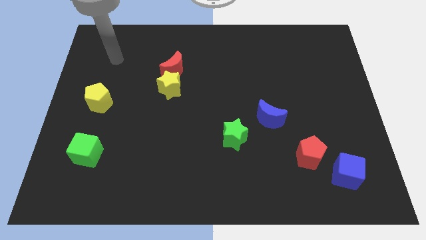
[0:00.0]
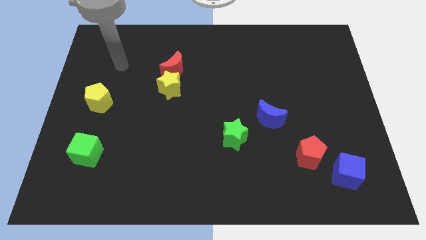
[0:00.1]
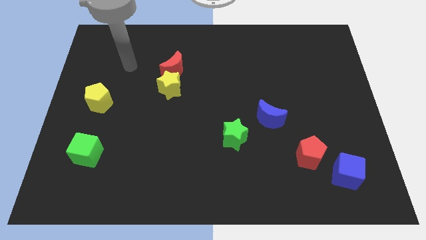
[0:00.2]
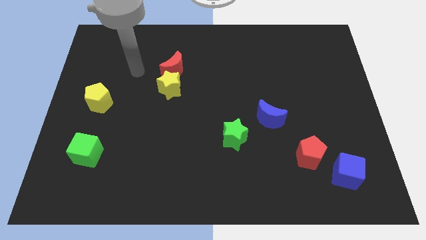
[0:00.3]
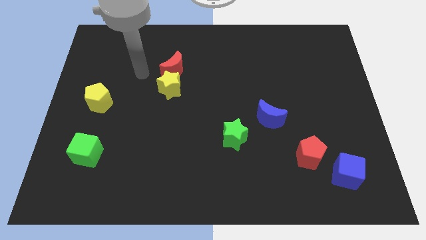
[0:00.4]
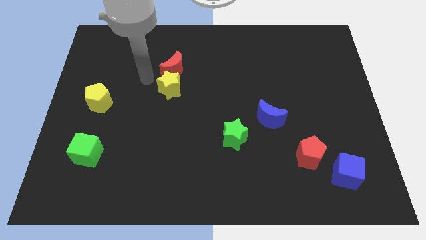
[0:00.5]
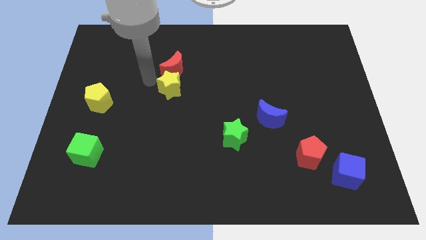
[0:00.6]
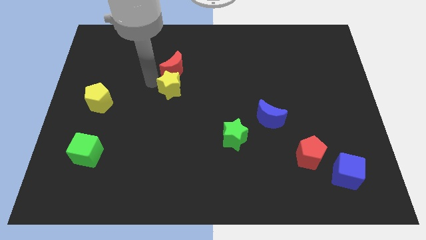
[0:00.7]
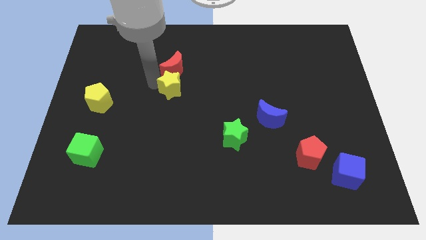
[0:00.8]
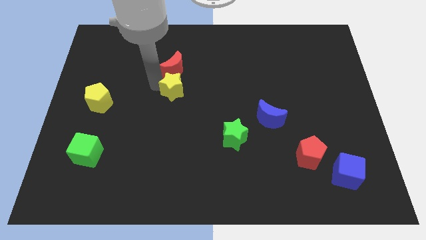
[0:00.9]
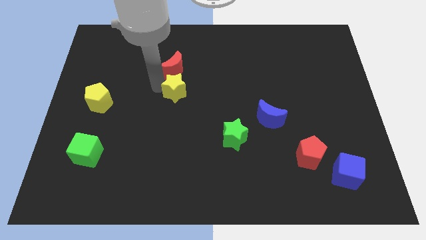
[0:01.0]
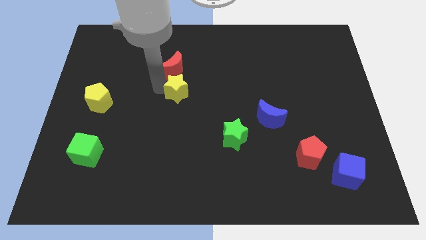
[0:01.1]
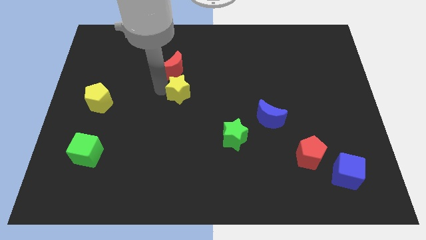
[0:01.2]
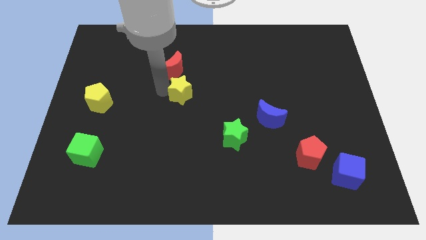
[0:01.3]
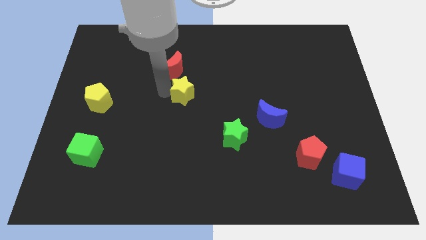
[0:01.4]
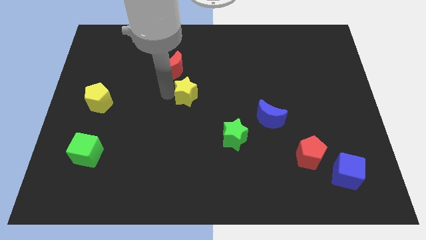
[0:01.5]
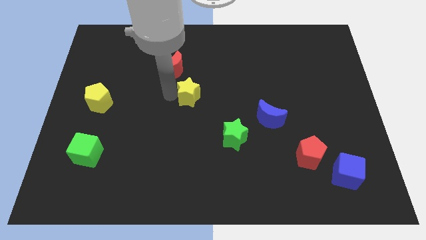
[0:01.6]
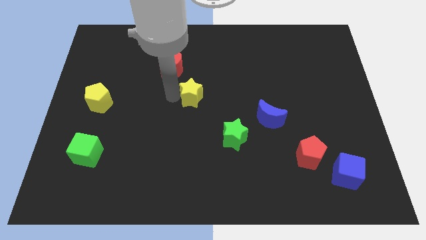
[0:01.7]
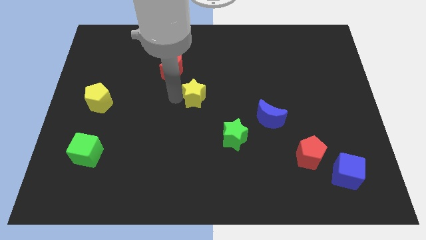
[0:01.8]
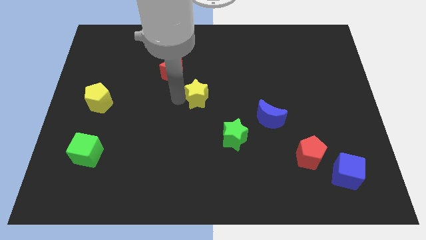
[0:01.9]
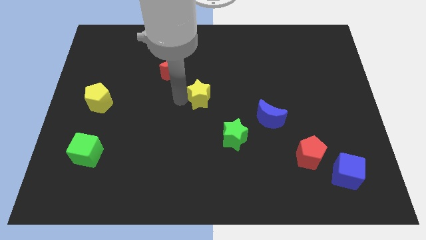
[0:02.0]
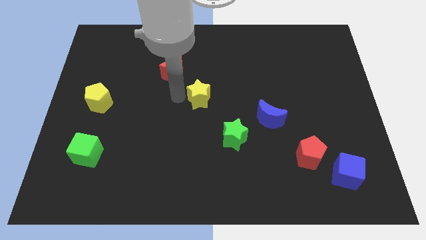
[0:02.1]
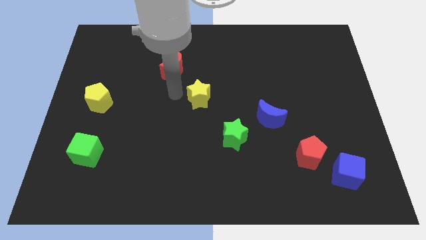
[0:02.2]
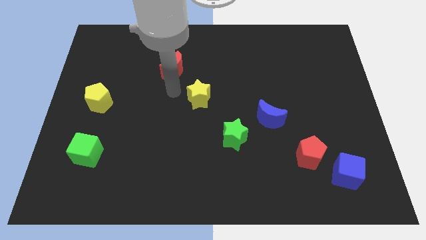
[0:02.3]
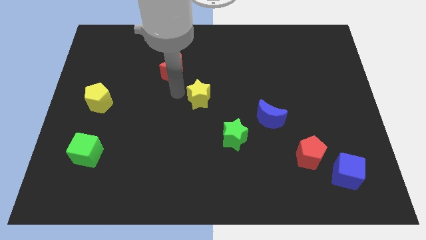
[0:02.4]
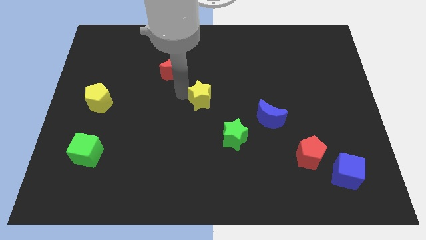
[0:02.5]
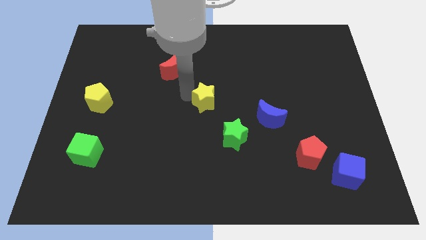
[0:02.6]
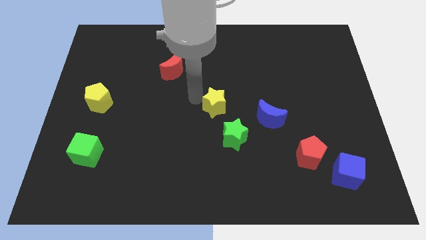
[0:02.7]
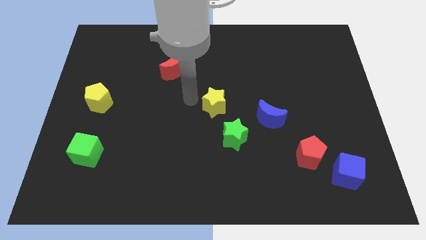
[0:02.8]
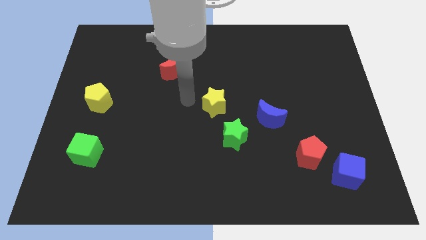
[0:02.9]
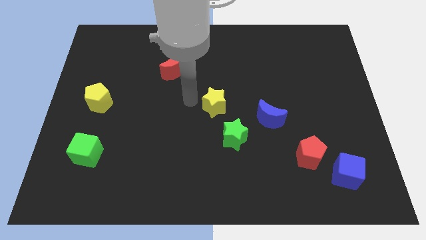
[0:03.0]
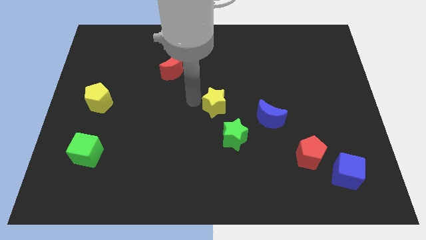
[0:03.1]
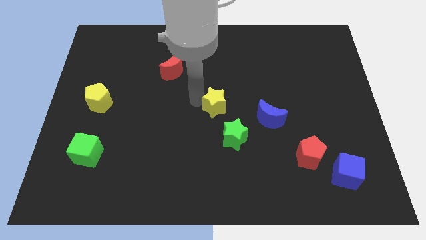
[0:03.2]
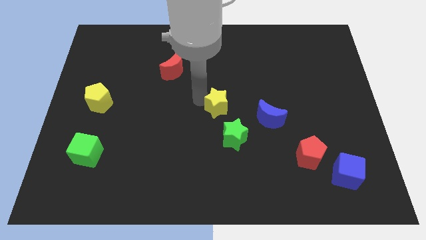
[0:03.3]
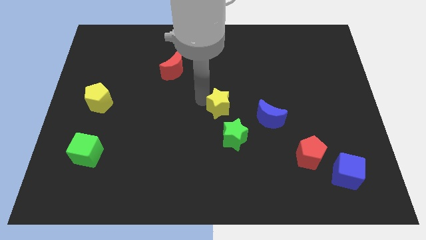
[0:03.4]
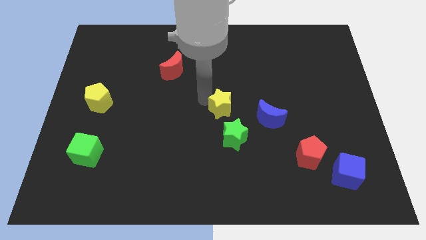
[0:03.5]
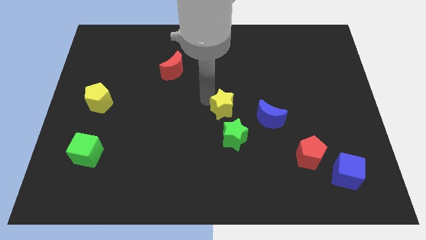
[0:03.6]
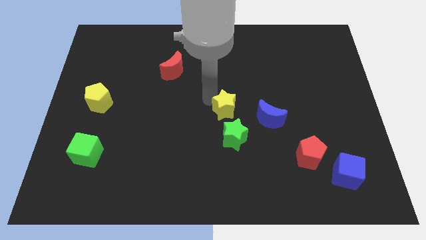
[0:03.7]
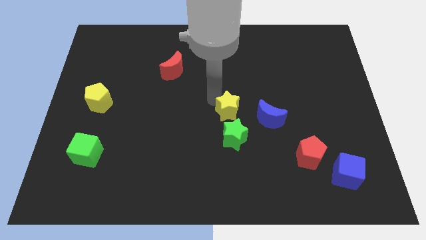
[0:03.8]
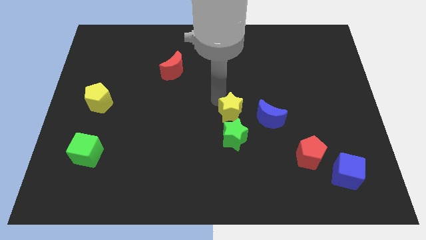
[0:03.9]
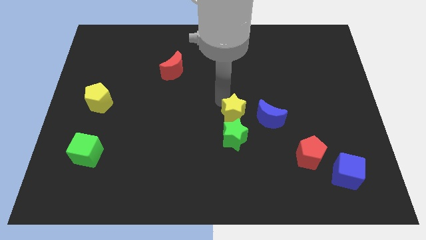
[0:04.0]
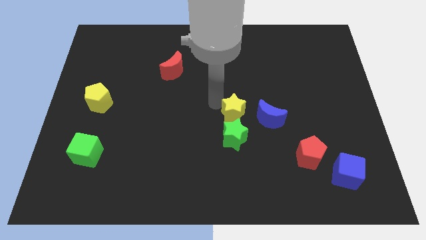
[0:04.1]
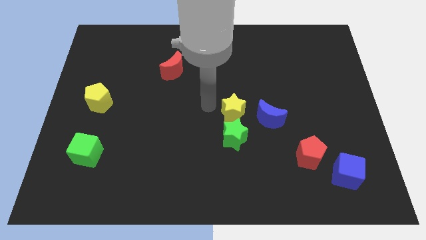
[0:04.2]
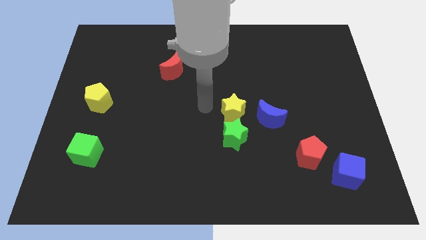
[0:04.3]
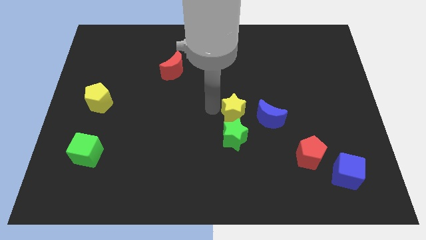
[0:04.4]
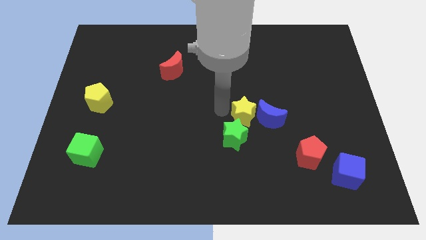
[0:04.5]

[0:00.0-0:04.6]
push the yellow star close to the blue moon

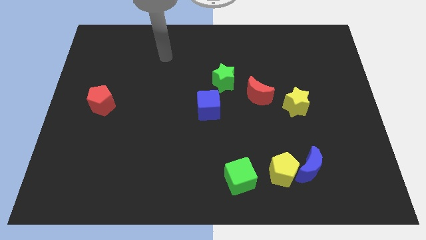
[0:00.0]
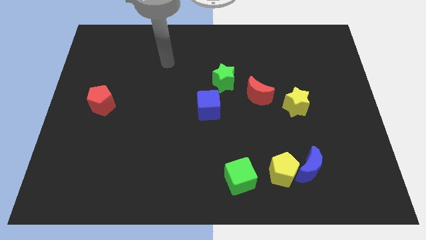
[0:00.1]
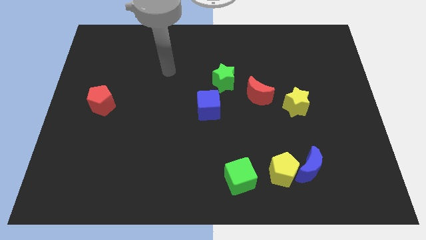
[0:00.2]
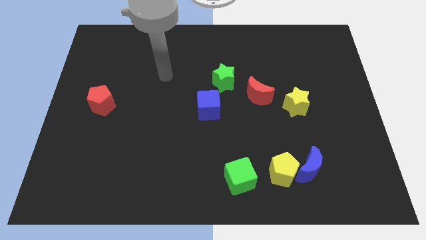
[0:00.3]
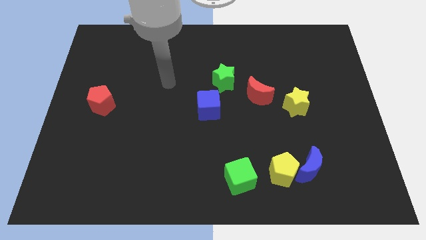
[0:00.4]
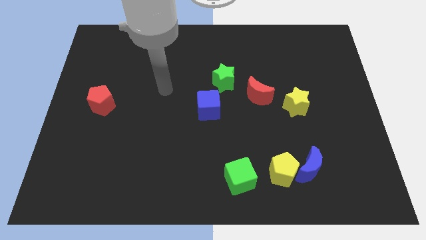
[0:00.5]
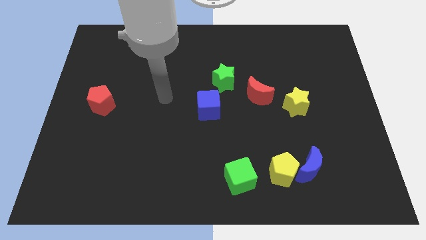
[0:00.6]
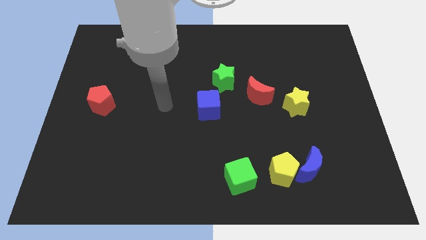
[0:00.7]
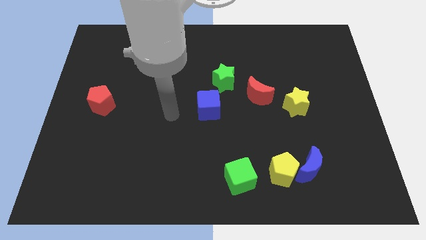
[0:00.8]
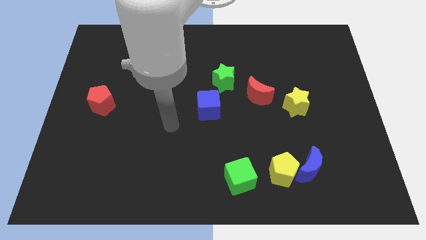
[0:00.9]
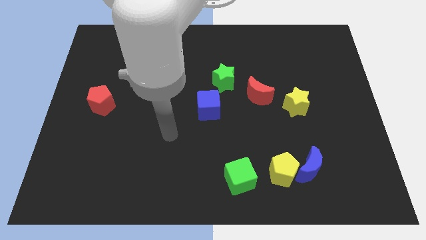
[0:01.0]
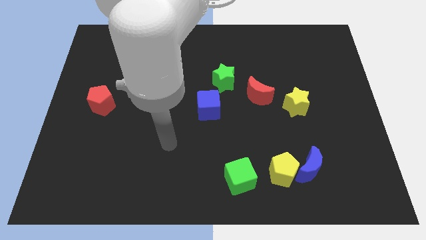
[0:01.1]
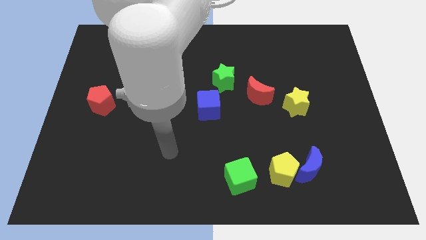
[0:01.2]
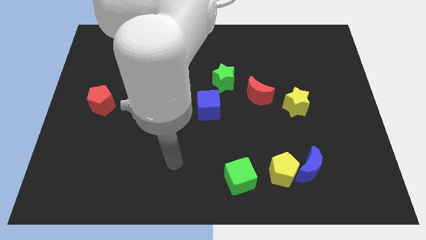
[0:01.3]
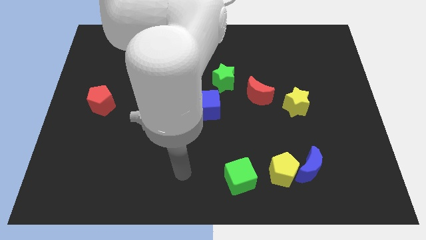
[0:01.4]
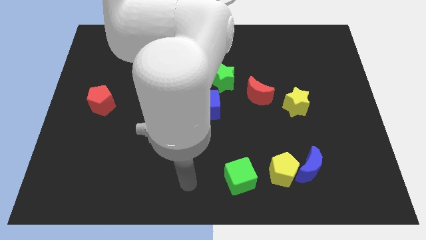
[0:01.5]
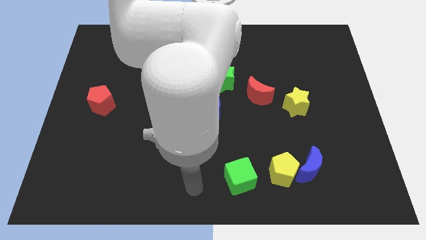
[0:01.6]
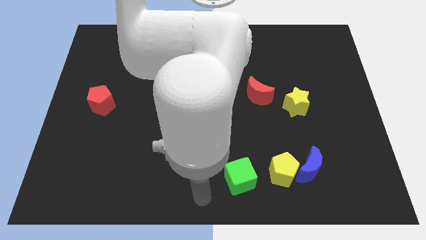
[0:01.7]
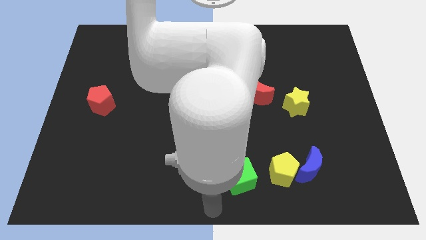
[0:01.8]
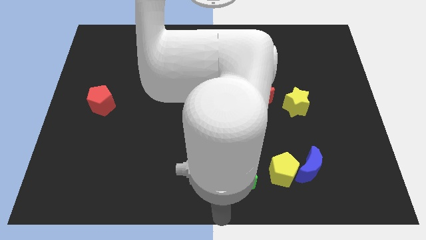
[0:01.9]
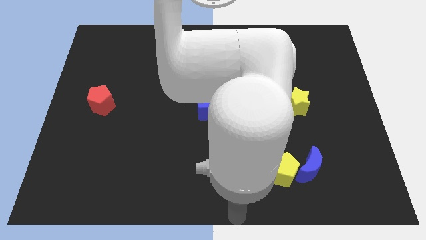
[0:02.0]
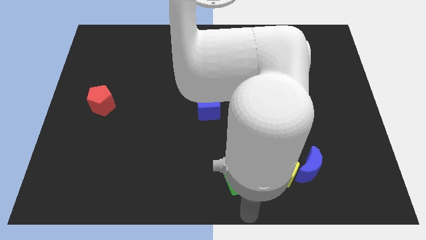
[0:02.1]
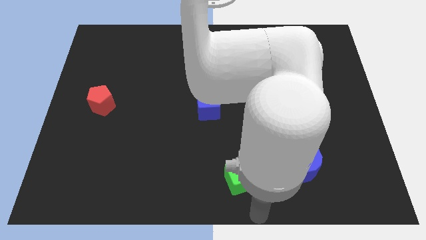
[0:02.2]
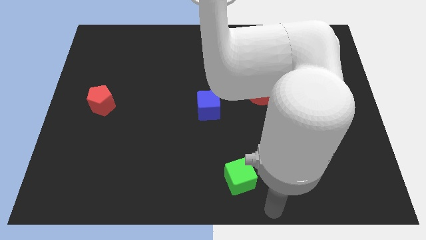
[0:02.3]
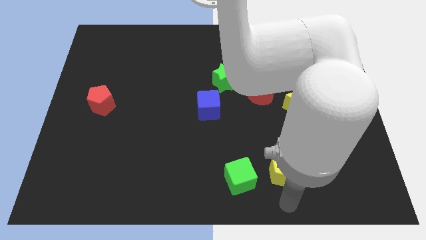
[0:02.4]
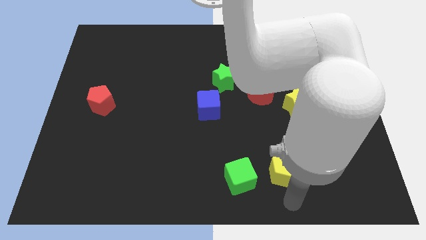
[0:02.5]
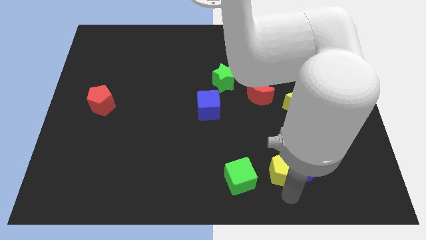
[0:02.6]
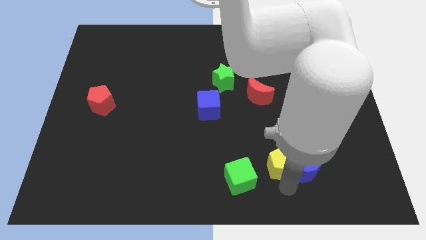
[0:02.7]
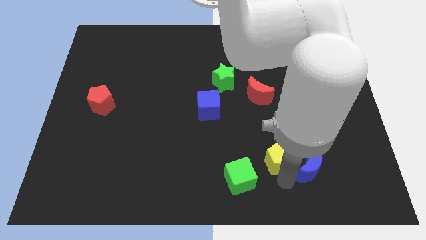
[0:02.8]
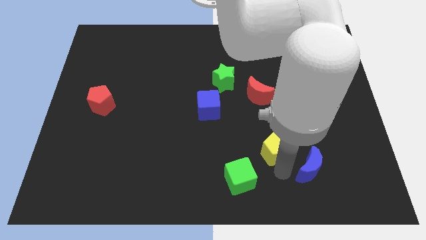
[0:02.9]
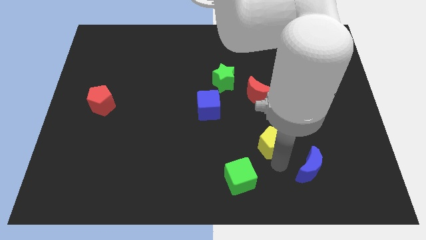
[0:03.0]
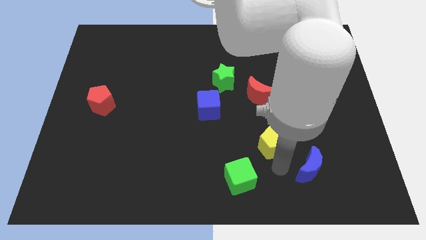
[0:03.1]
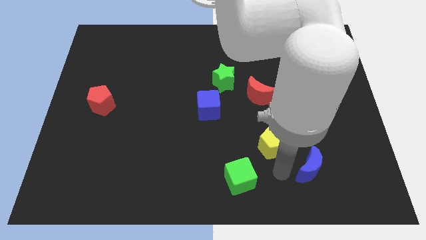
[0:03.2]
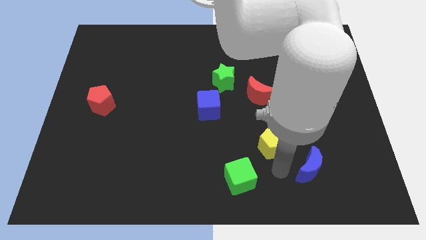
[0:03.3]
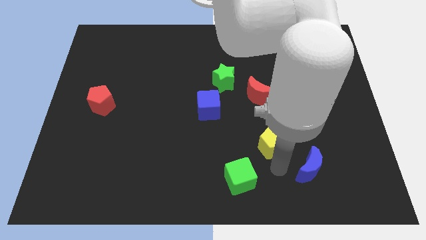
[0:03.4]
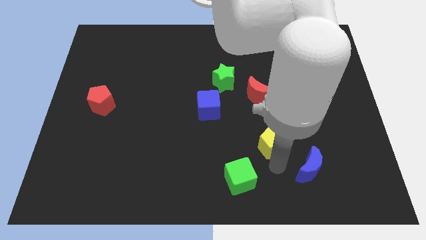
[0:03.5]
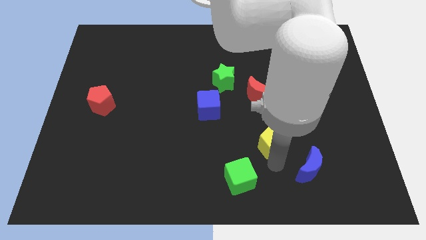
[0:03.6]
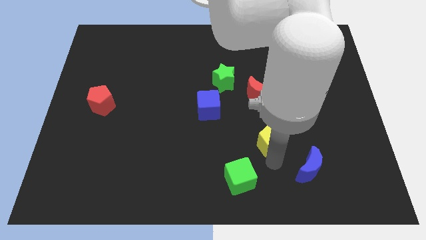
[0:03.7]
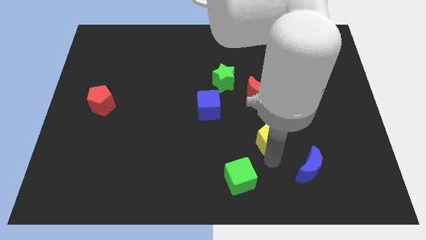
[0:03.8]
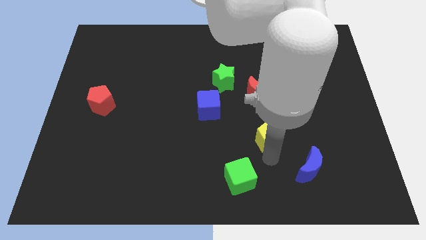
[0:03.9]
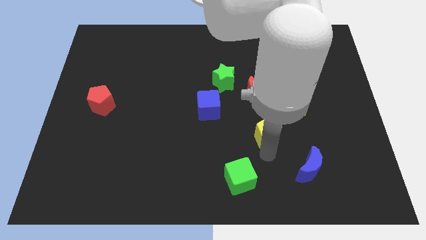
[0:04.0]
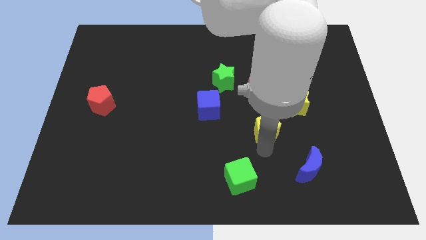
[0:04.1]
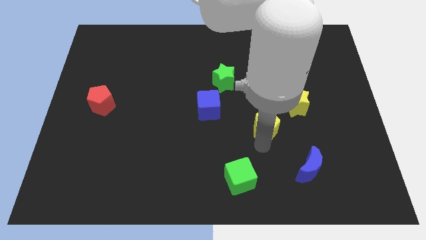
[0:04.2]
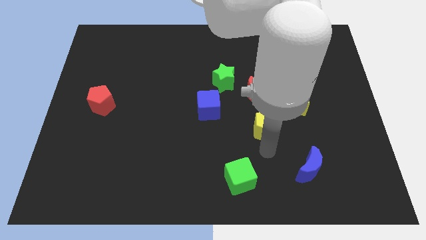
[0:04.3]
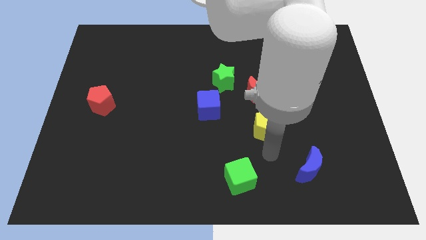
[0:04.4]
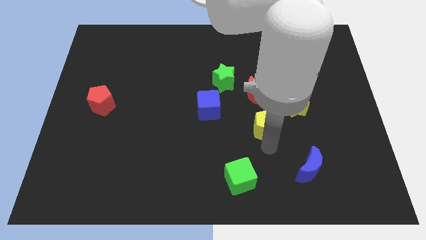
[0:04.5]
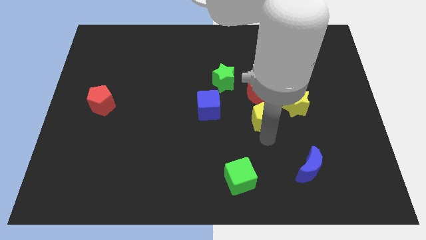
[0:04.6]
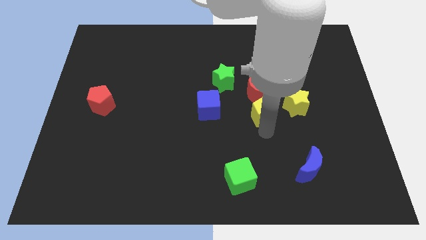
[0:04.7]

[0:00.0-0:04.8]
put the yellow pentagon next to the red moon
